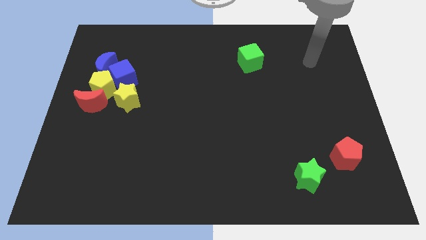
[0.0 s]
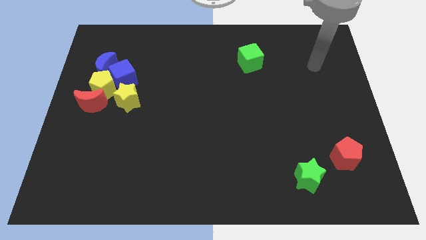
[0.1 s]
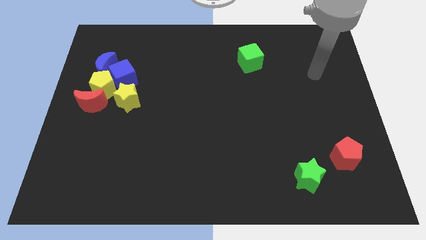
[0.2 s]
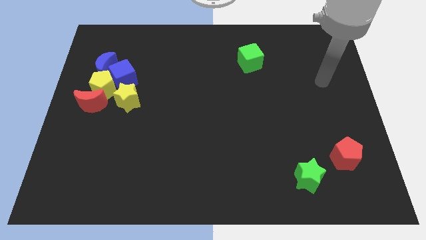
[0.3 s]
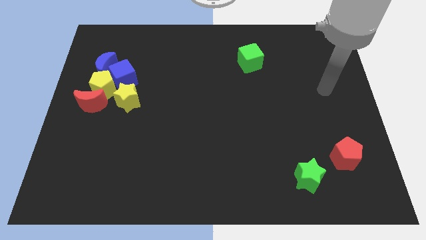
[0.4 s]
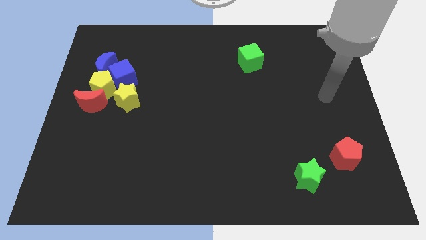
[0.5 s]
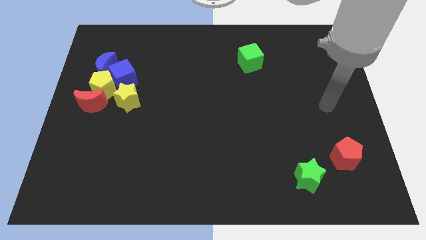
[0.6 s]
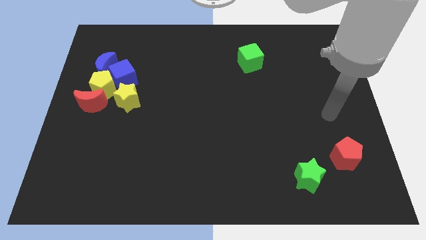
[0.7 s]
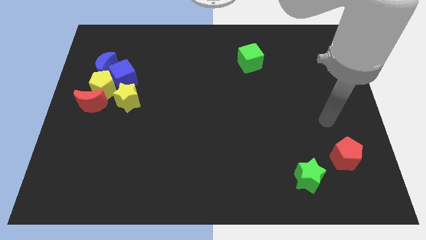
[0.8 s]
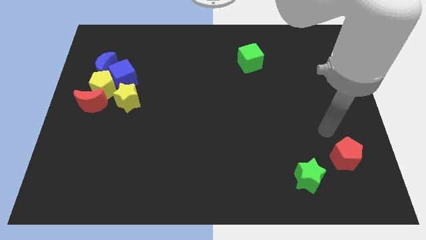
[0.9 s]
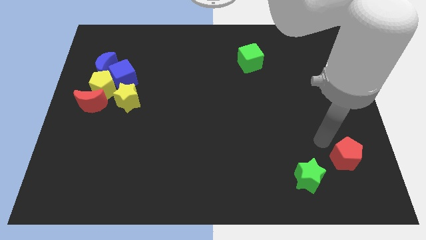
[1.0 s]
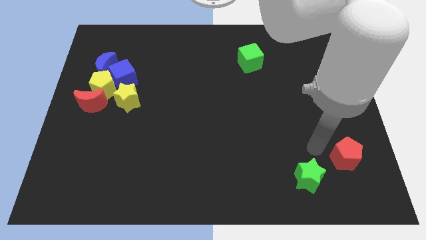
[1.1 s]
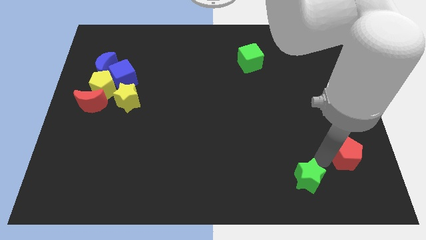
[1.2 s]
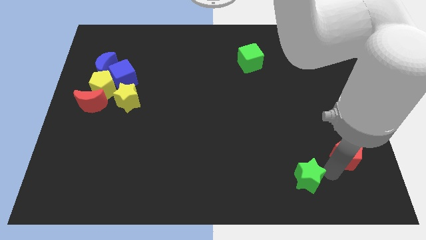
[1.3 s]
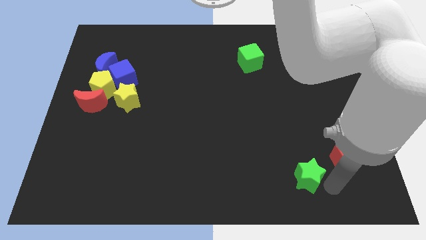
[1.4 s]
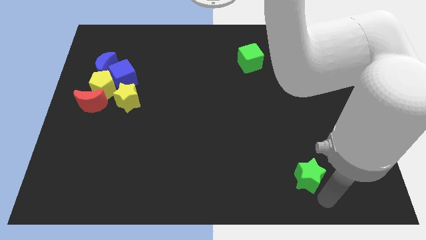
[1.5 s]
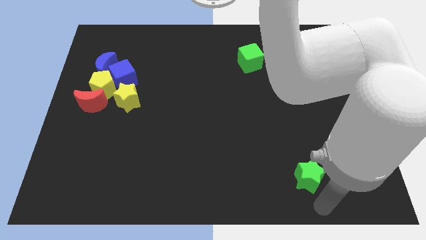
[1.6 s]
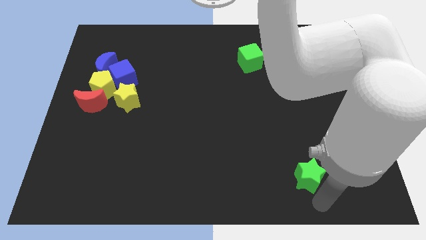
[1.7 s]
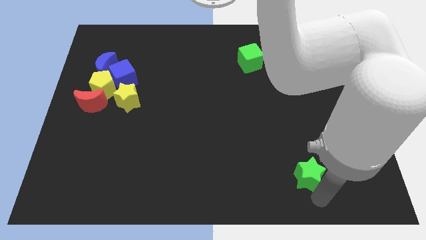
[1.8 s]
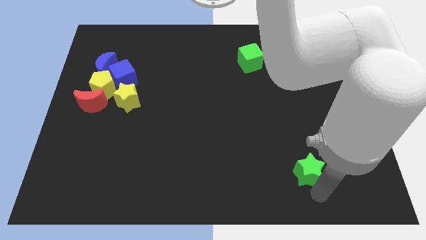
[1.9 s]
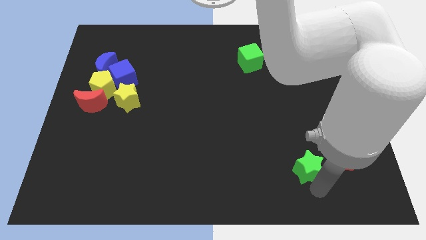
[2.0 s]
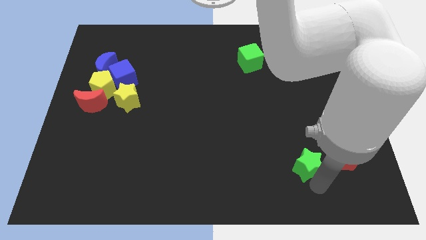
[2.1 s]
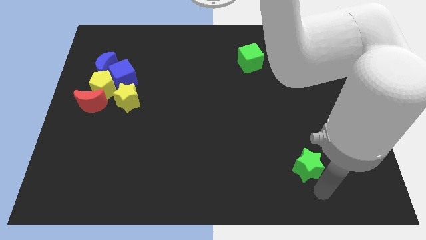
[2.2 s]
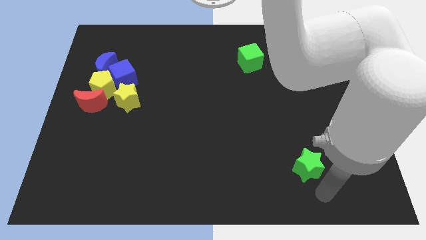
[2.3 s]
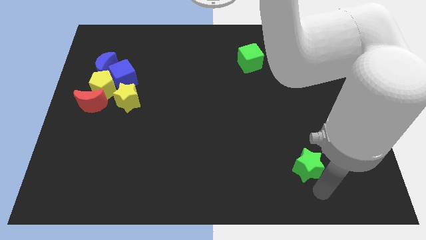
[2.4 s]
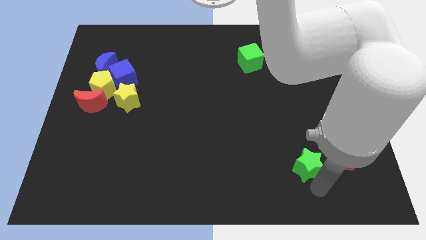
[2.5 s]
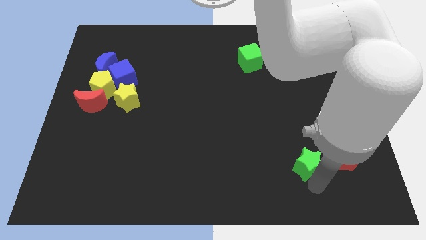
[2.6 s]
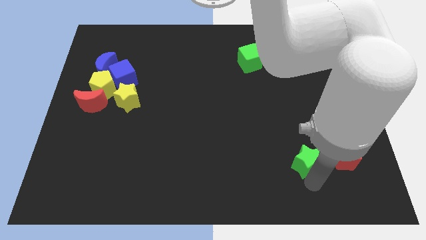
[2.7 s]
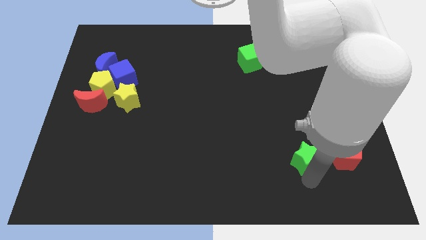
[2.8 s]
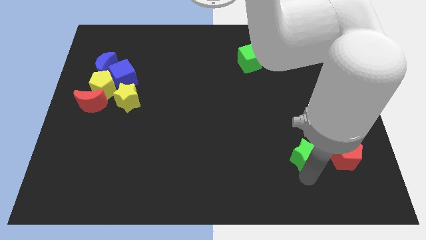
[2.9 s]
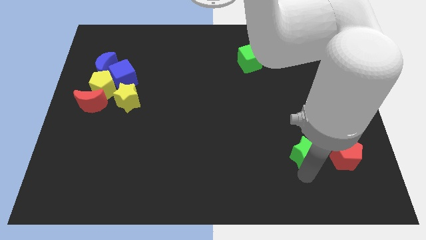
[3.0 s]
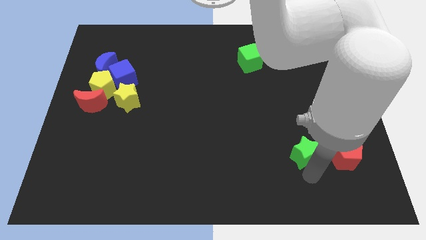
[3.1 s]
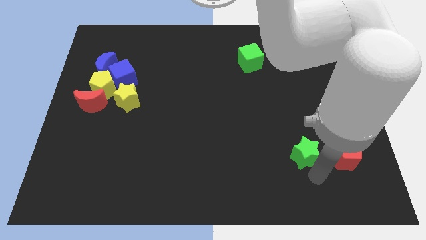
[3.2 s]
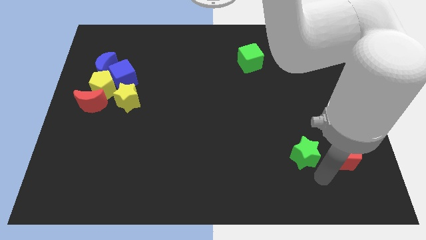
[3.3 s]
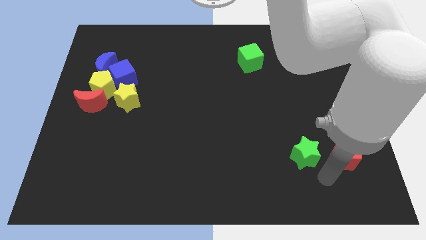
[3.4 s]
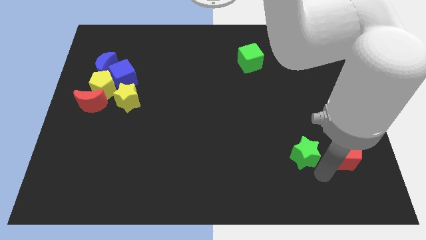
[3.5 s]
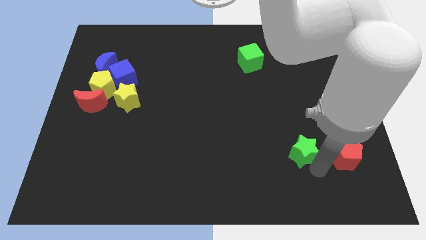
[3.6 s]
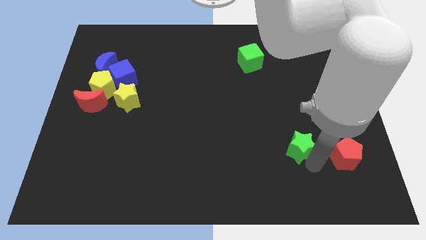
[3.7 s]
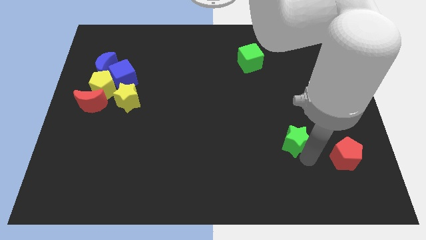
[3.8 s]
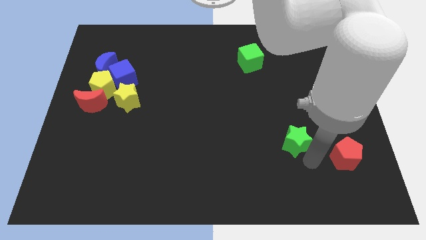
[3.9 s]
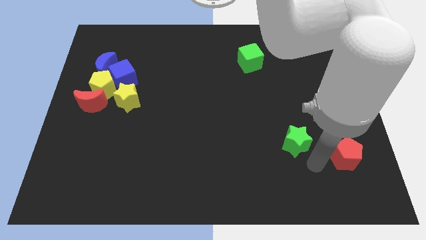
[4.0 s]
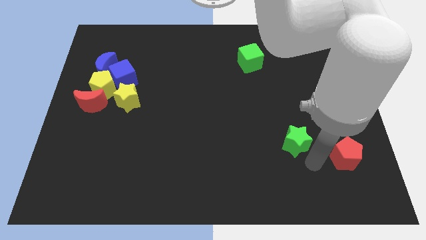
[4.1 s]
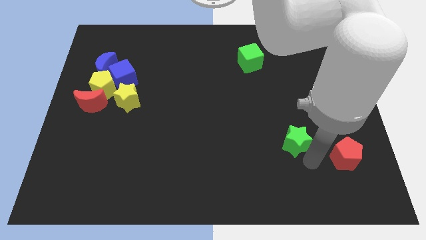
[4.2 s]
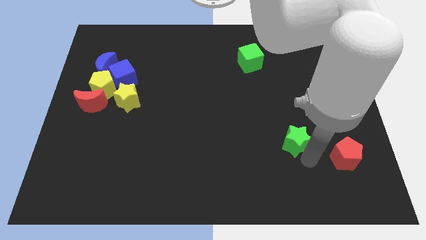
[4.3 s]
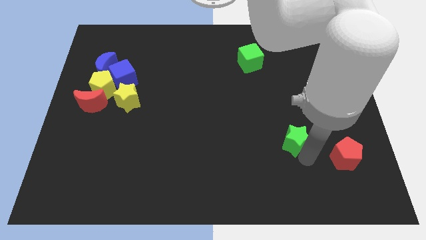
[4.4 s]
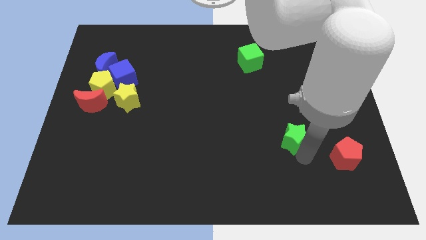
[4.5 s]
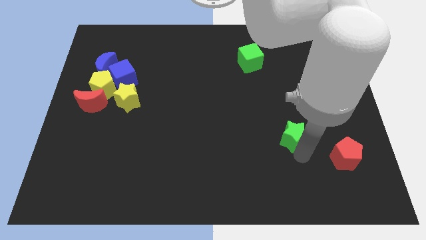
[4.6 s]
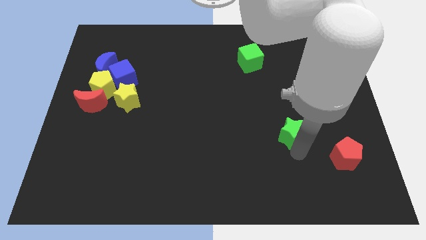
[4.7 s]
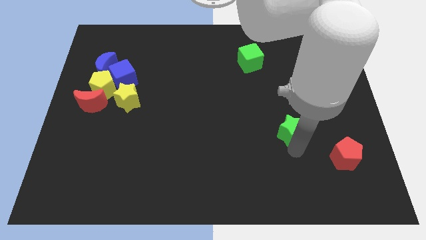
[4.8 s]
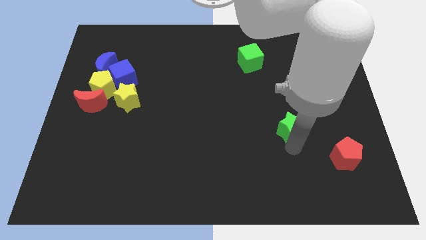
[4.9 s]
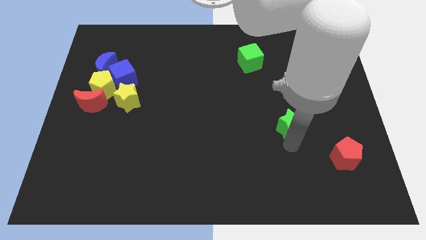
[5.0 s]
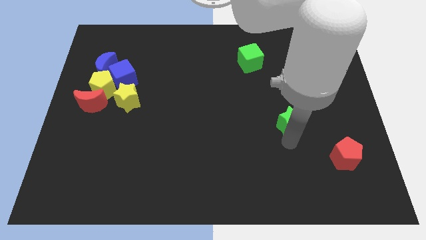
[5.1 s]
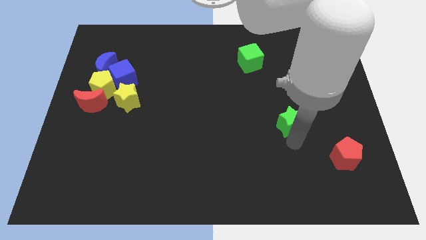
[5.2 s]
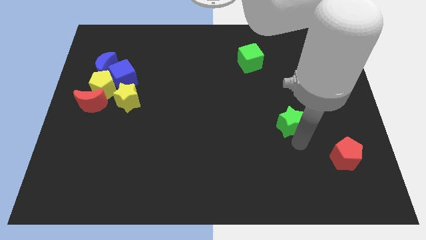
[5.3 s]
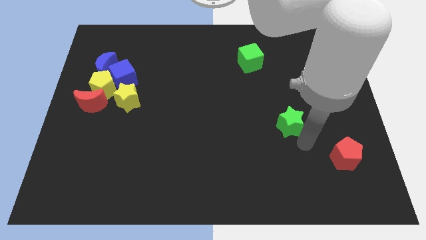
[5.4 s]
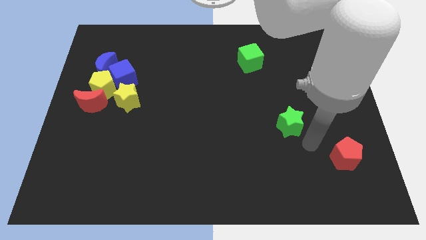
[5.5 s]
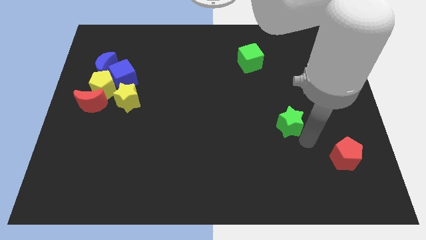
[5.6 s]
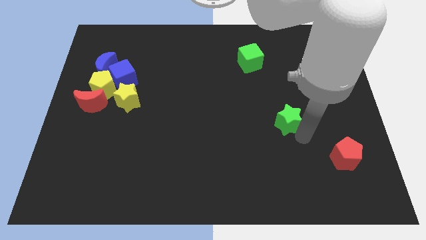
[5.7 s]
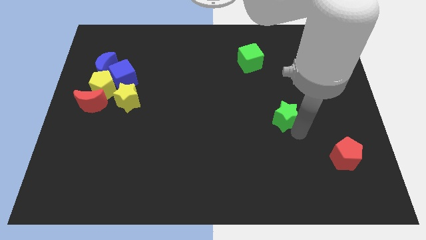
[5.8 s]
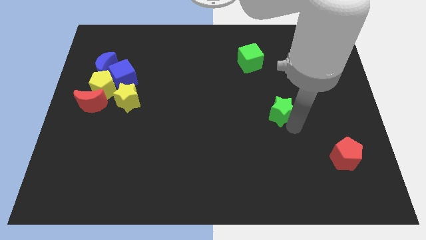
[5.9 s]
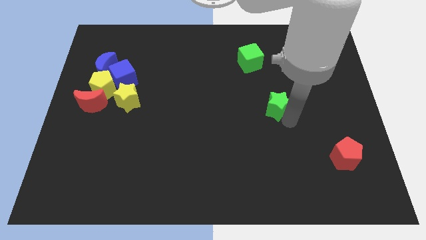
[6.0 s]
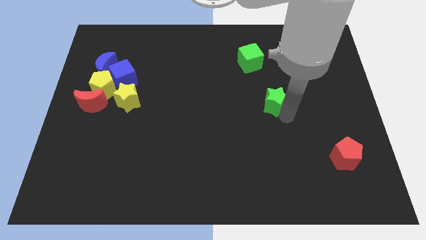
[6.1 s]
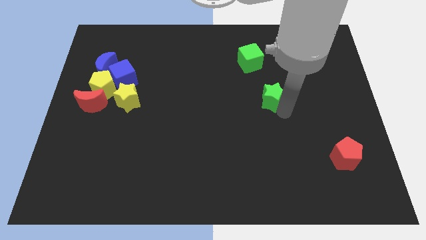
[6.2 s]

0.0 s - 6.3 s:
move the green star to the bottom of the green cube

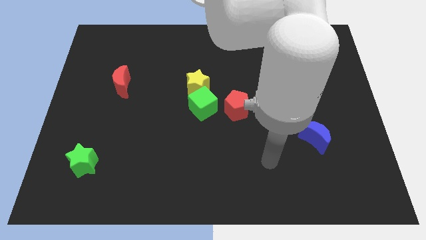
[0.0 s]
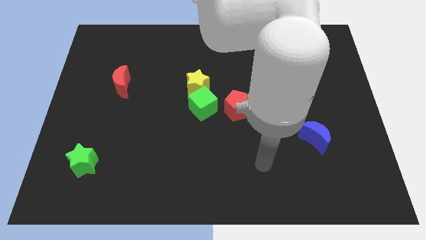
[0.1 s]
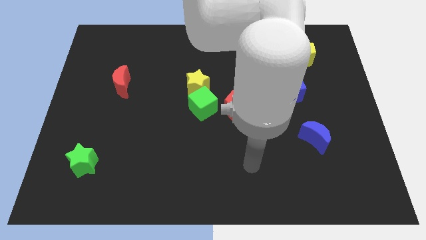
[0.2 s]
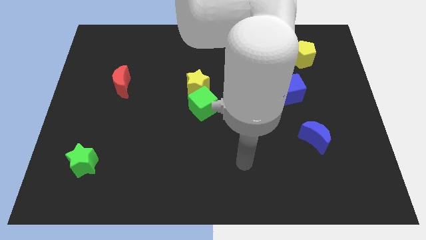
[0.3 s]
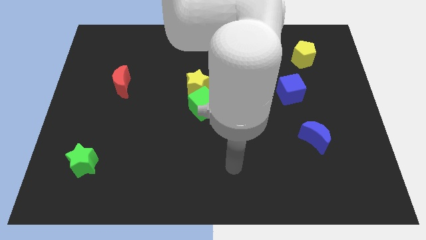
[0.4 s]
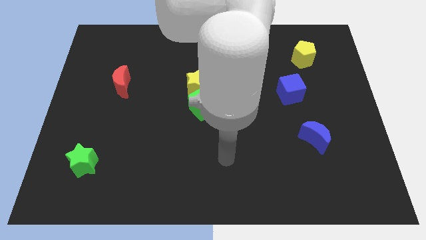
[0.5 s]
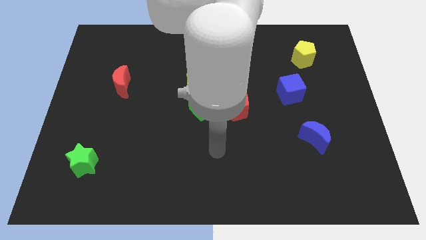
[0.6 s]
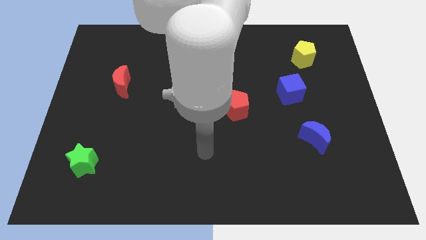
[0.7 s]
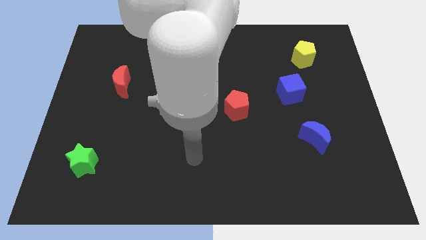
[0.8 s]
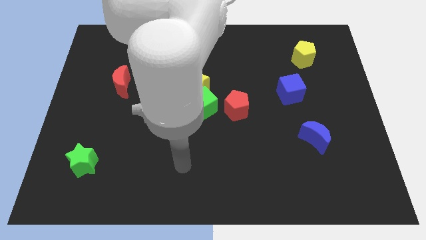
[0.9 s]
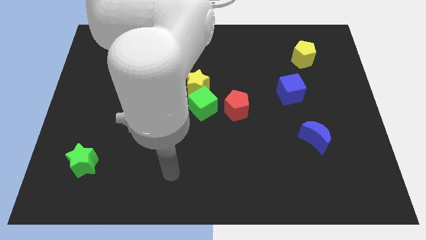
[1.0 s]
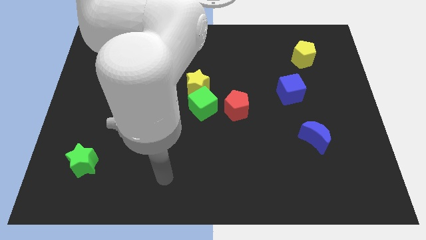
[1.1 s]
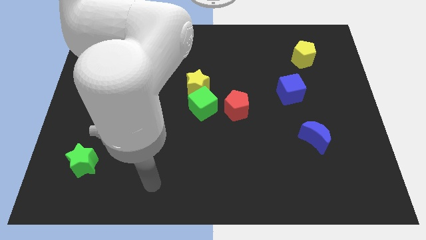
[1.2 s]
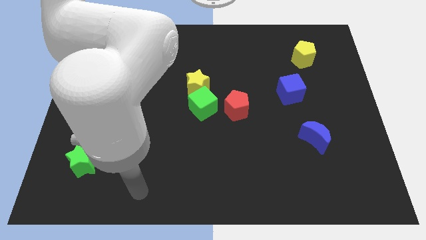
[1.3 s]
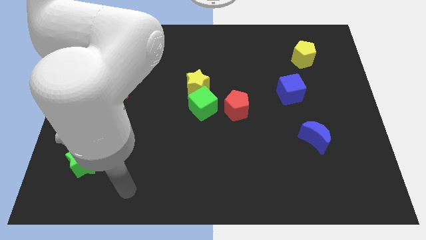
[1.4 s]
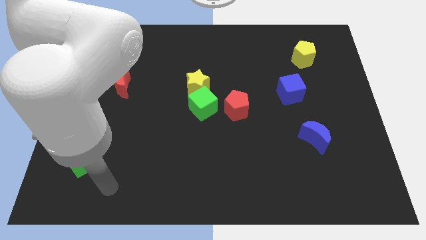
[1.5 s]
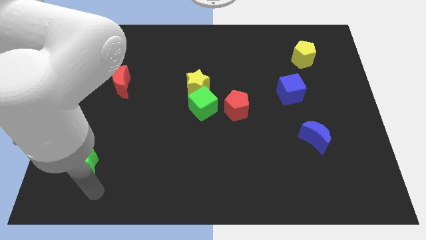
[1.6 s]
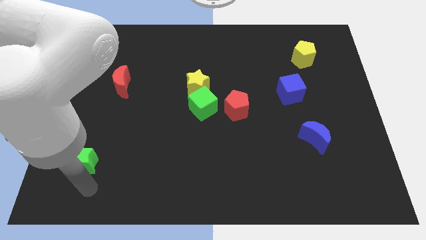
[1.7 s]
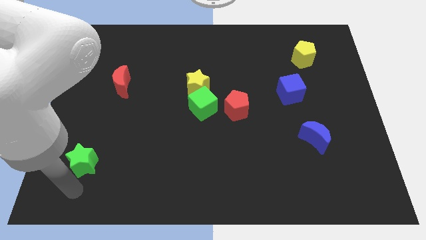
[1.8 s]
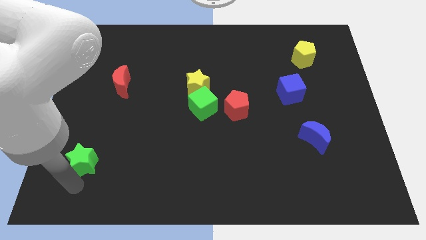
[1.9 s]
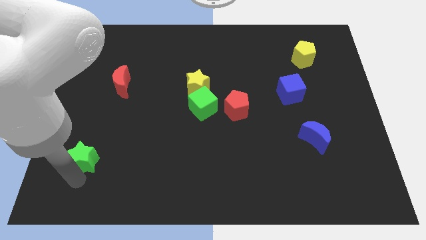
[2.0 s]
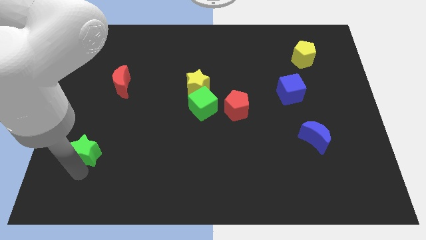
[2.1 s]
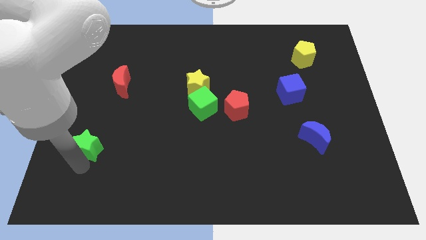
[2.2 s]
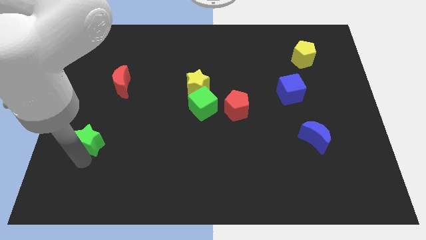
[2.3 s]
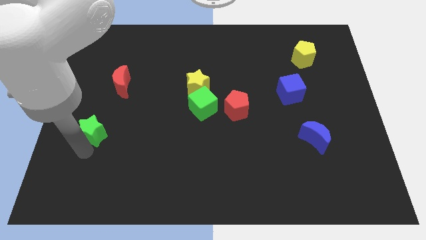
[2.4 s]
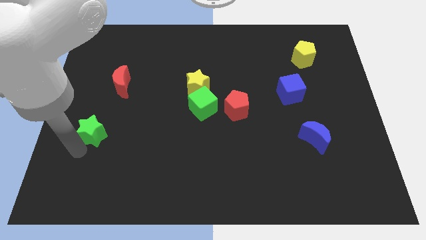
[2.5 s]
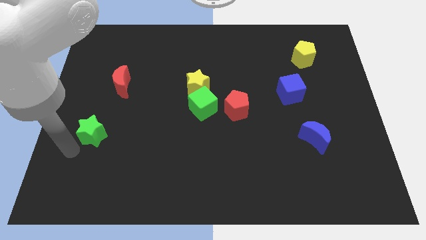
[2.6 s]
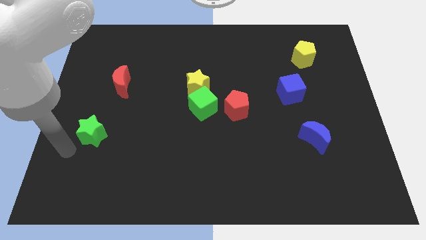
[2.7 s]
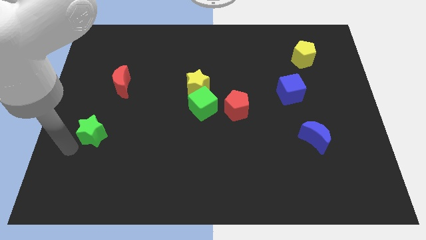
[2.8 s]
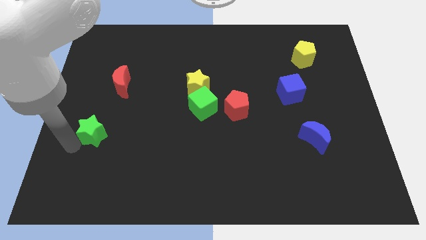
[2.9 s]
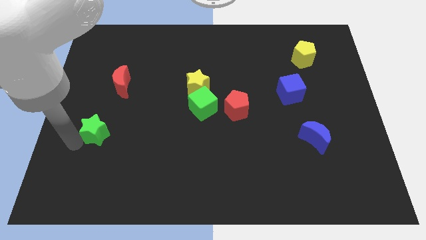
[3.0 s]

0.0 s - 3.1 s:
push the green star below the red moon
